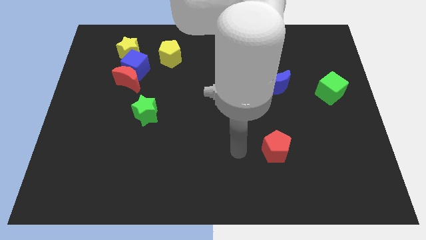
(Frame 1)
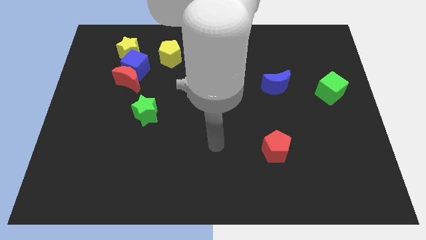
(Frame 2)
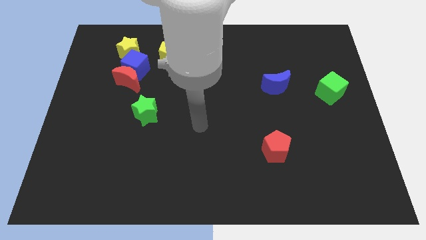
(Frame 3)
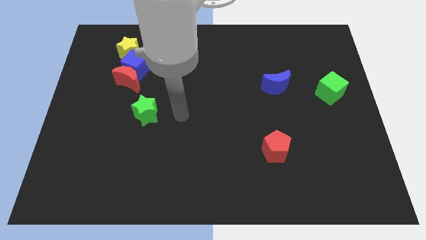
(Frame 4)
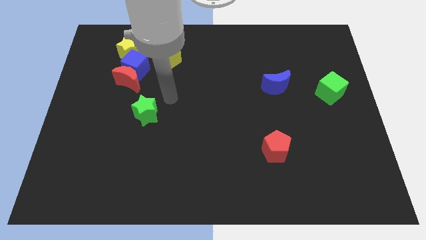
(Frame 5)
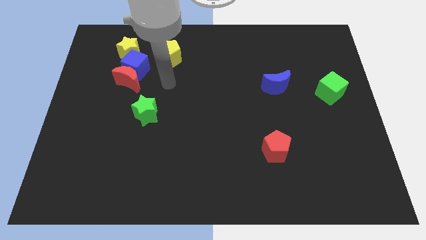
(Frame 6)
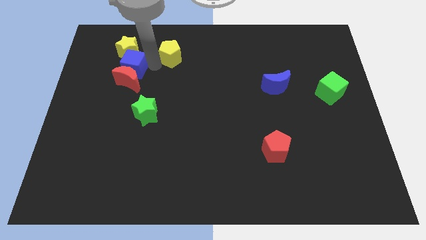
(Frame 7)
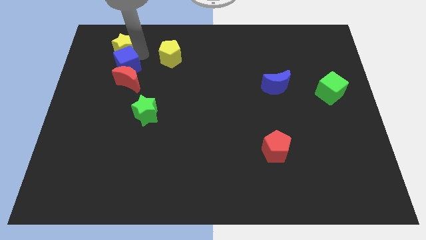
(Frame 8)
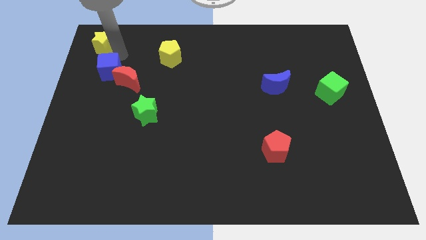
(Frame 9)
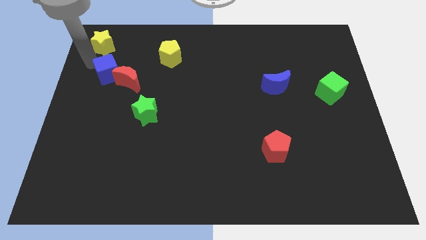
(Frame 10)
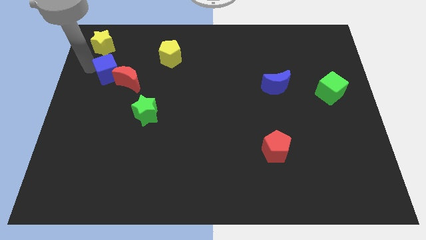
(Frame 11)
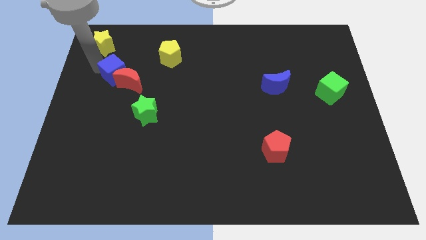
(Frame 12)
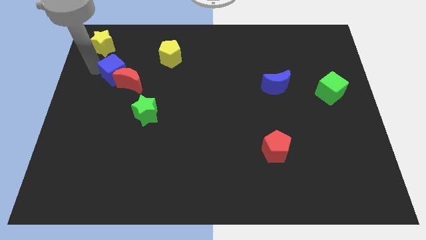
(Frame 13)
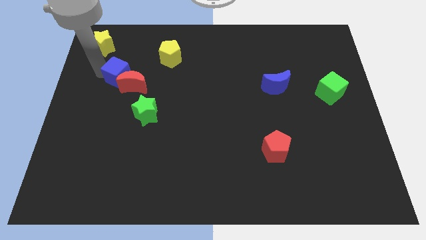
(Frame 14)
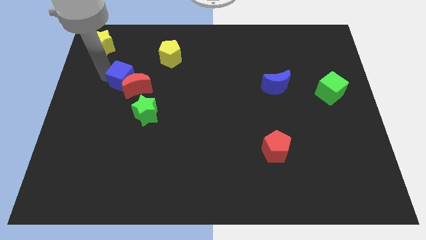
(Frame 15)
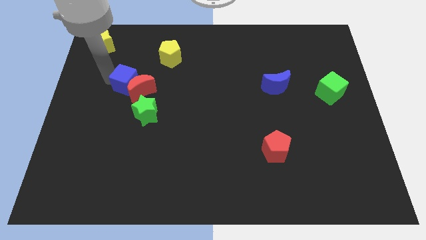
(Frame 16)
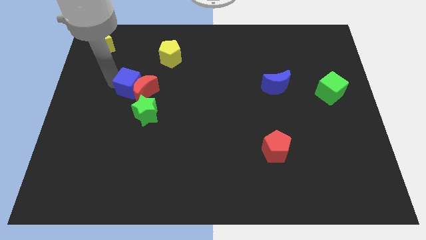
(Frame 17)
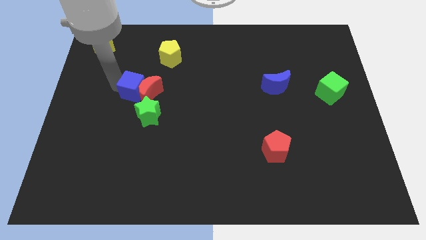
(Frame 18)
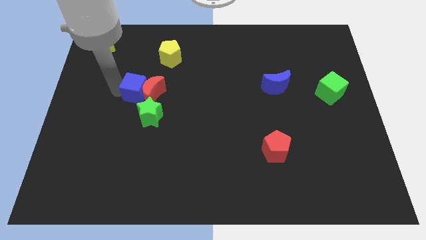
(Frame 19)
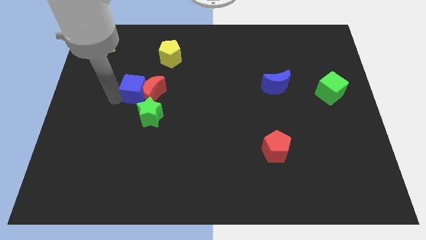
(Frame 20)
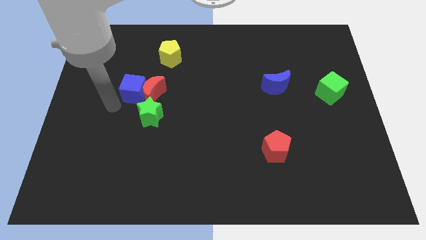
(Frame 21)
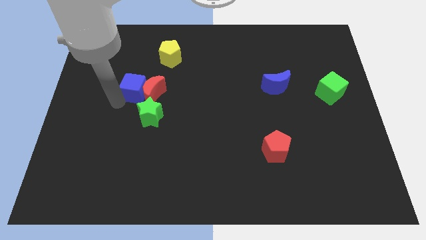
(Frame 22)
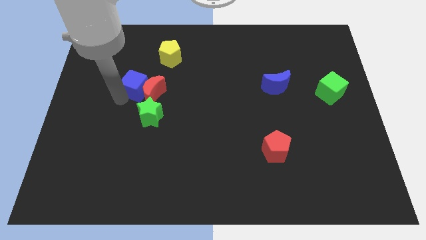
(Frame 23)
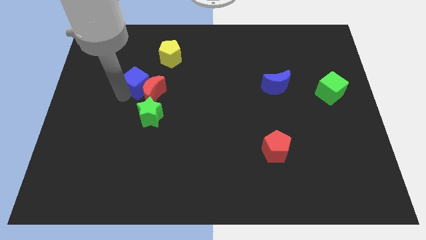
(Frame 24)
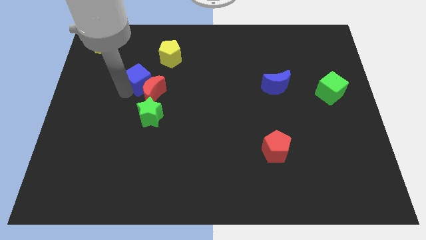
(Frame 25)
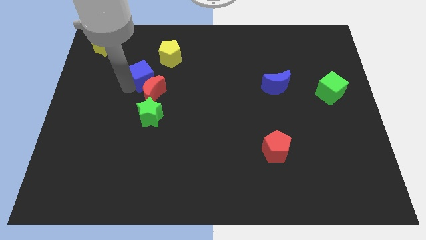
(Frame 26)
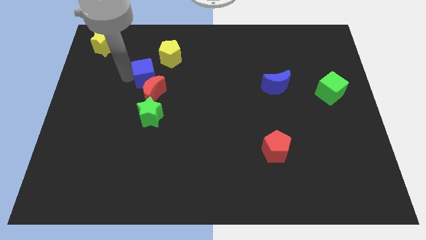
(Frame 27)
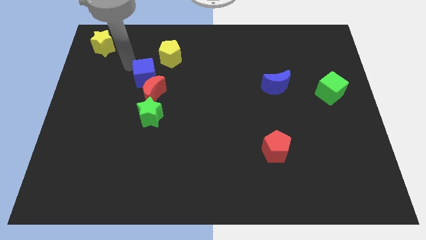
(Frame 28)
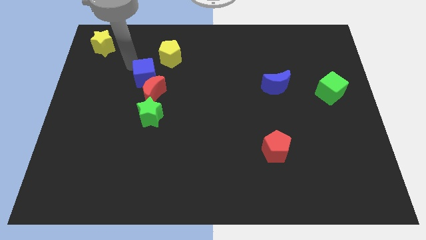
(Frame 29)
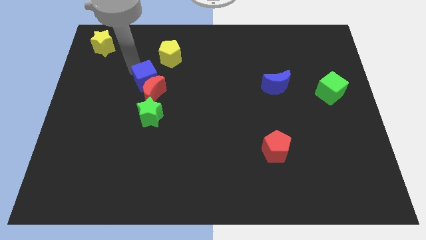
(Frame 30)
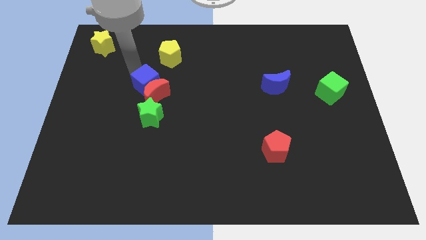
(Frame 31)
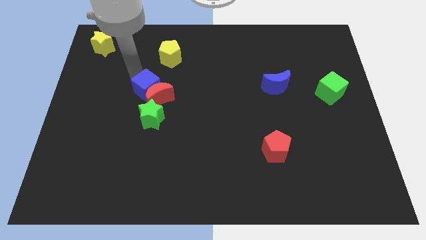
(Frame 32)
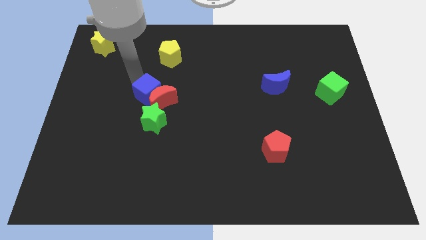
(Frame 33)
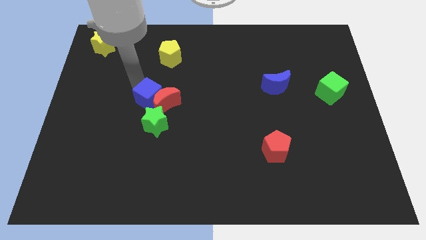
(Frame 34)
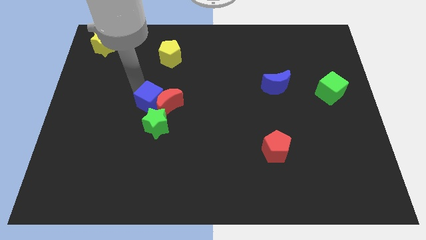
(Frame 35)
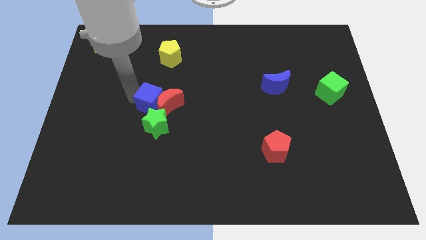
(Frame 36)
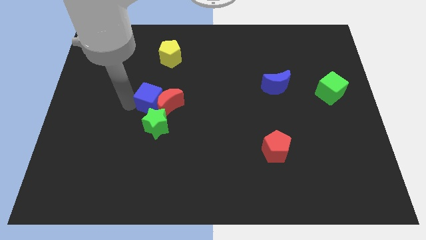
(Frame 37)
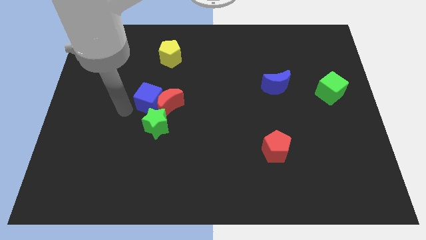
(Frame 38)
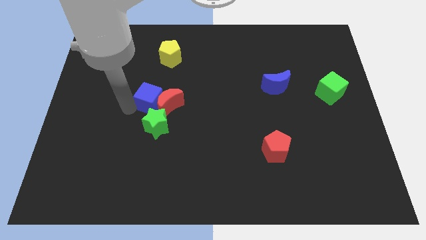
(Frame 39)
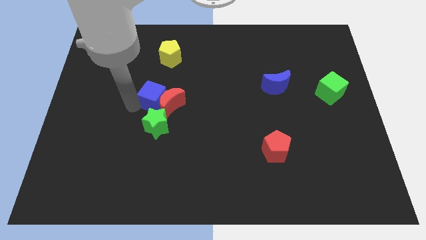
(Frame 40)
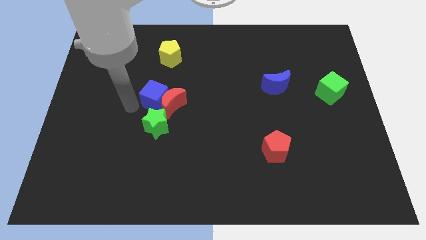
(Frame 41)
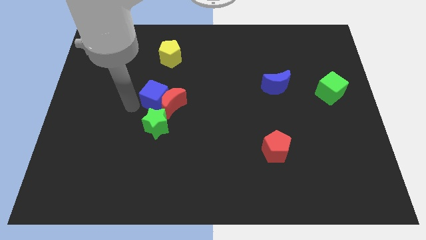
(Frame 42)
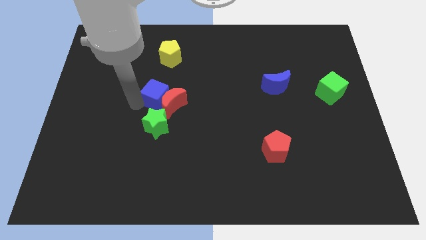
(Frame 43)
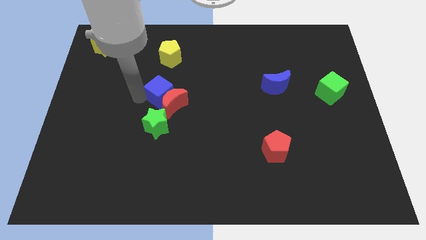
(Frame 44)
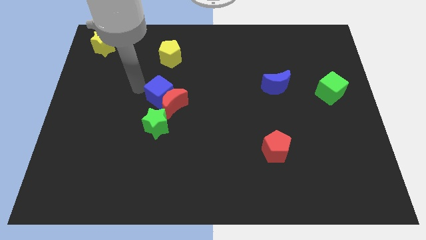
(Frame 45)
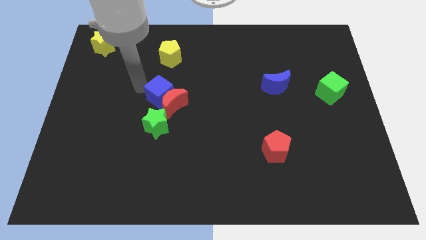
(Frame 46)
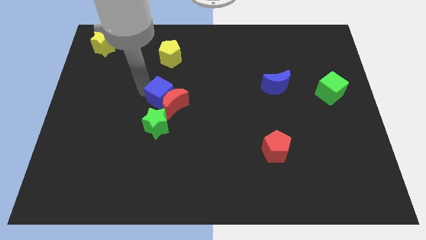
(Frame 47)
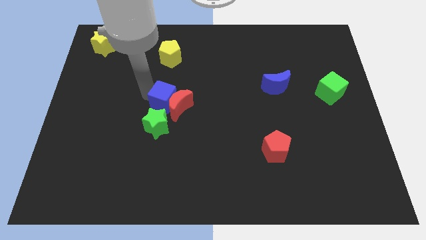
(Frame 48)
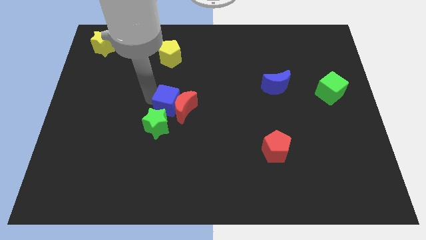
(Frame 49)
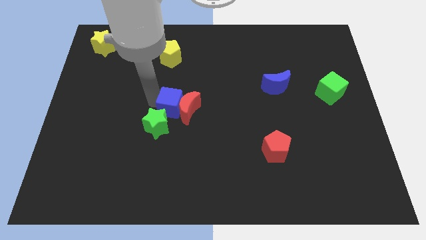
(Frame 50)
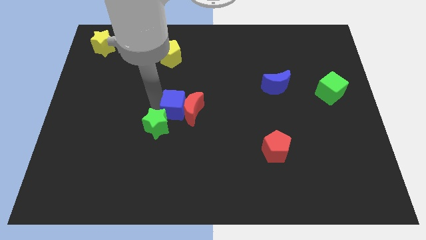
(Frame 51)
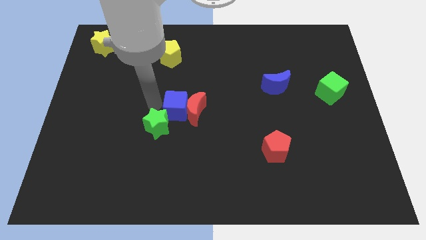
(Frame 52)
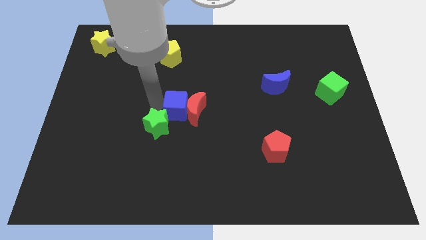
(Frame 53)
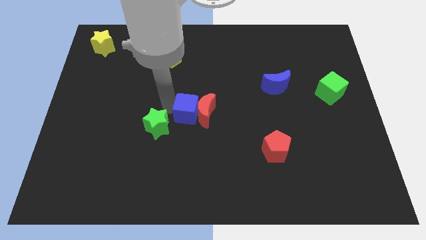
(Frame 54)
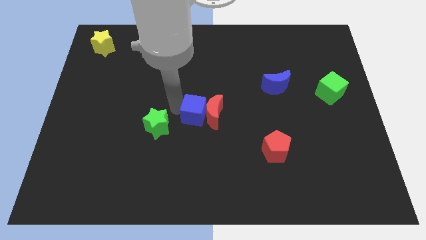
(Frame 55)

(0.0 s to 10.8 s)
move the blue cube downwards and to the right

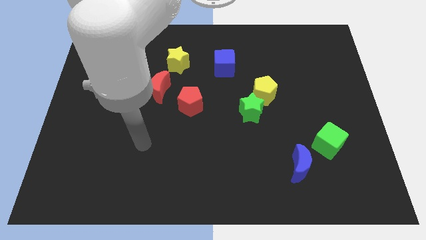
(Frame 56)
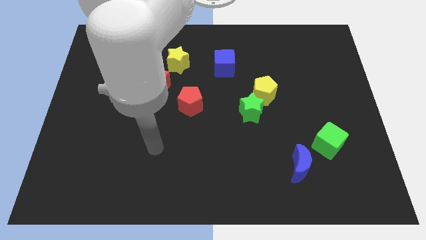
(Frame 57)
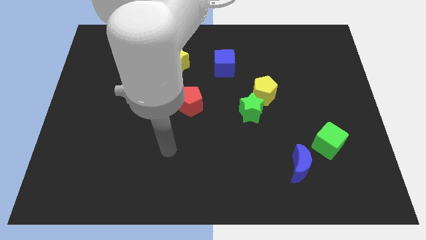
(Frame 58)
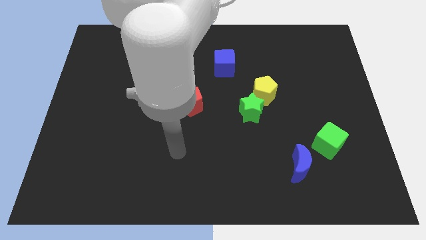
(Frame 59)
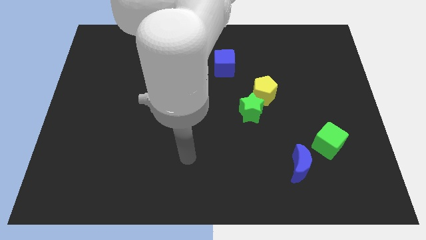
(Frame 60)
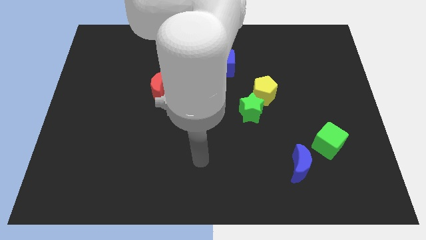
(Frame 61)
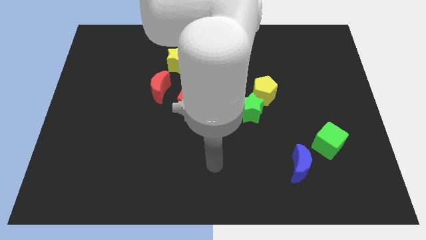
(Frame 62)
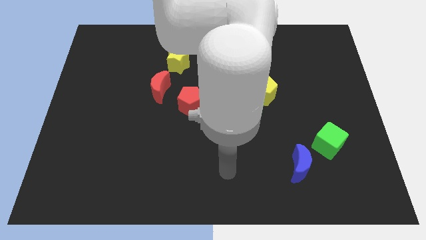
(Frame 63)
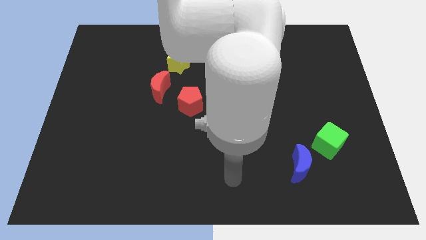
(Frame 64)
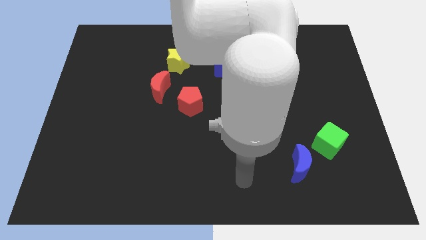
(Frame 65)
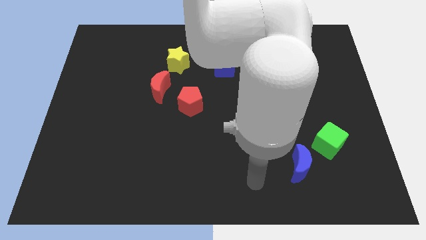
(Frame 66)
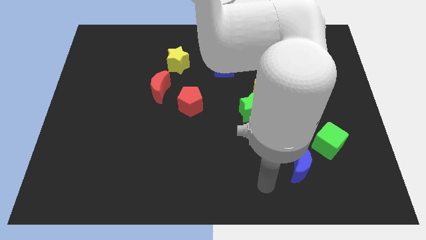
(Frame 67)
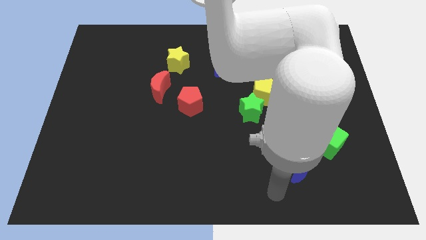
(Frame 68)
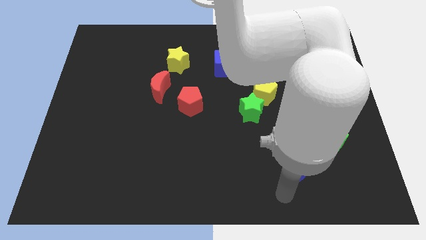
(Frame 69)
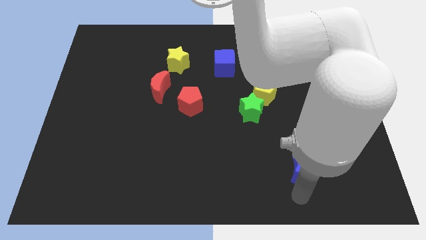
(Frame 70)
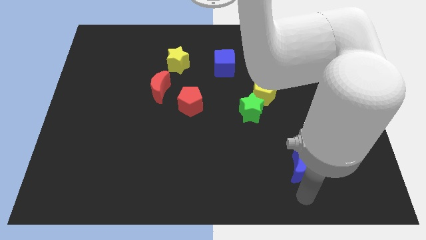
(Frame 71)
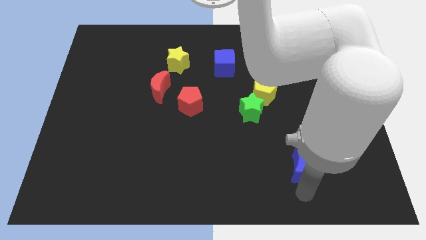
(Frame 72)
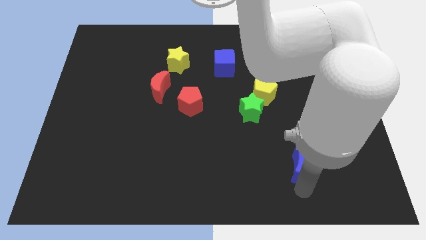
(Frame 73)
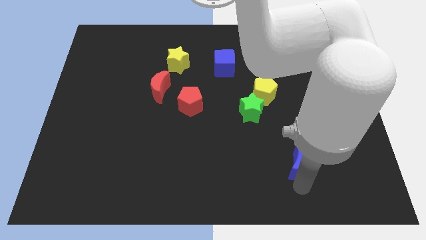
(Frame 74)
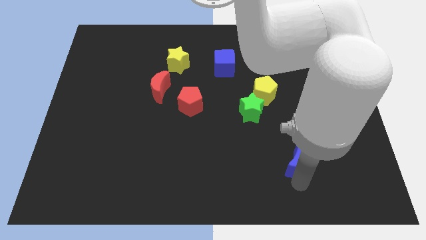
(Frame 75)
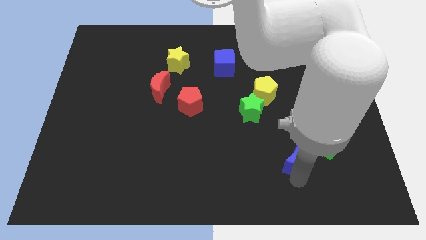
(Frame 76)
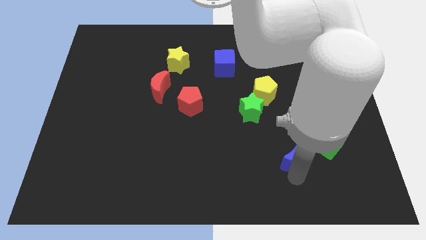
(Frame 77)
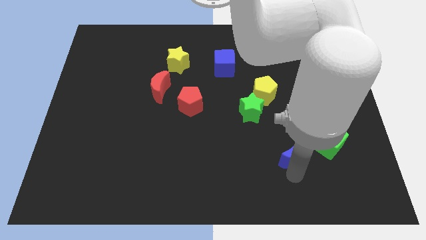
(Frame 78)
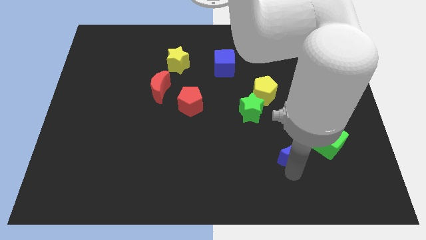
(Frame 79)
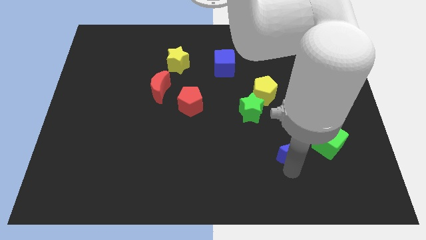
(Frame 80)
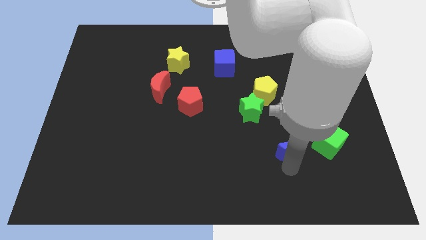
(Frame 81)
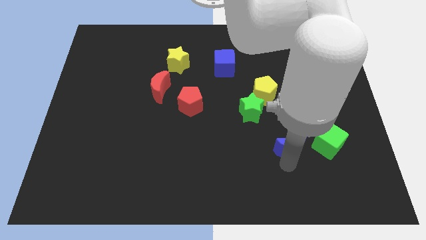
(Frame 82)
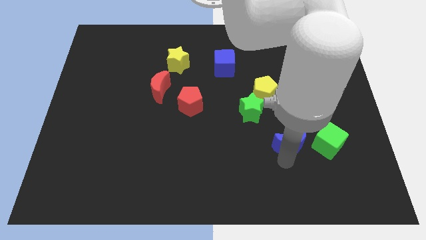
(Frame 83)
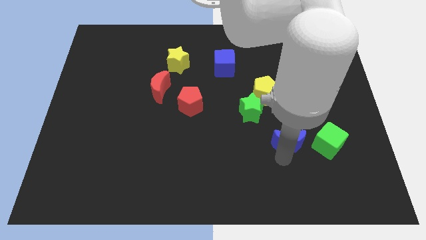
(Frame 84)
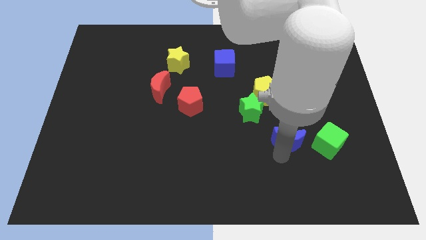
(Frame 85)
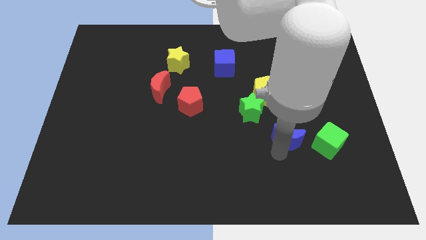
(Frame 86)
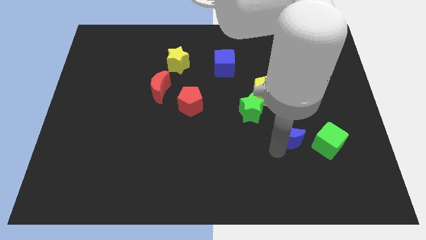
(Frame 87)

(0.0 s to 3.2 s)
slide the blue moon up a little
